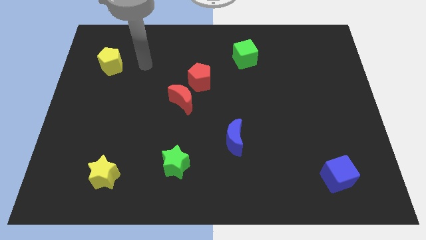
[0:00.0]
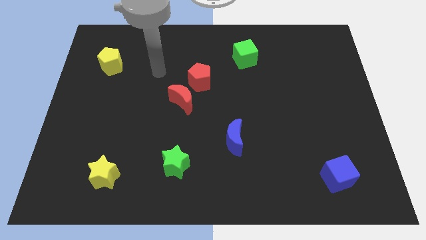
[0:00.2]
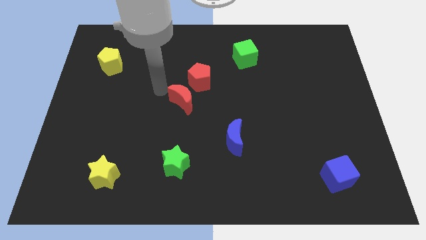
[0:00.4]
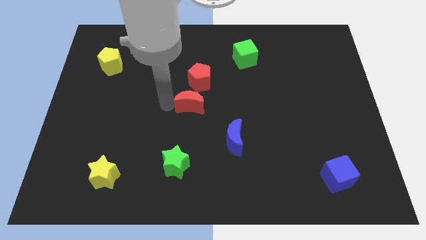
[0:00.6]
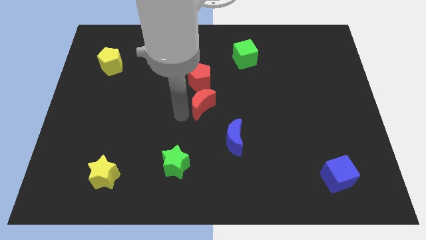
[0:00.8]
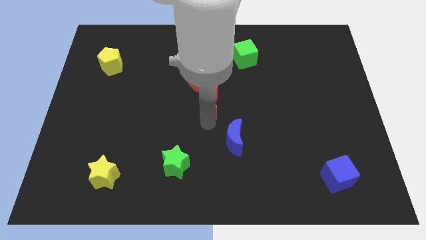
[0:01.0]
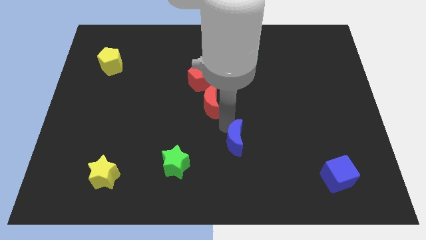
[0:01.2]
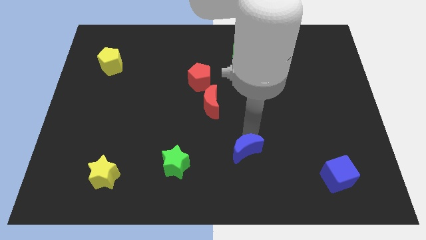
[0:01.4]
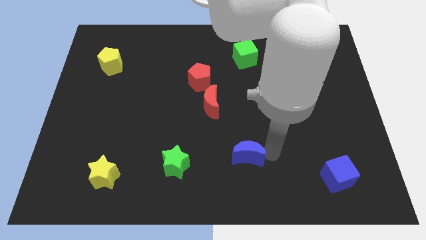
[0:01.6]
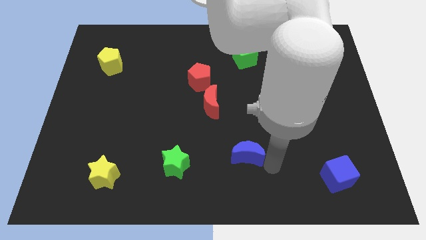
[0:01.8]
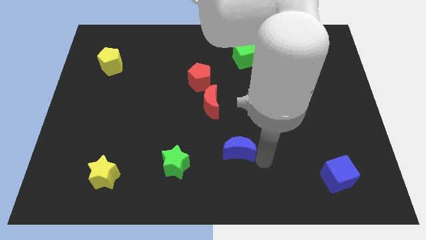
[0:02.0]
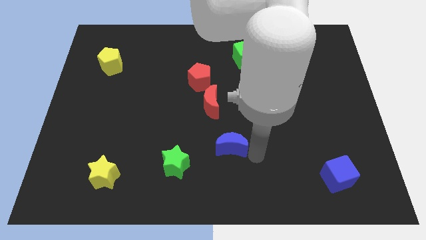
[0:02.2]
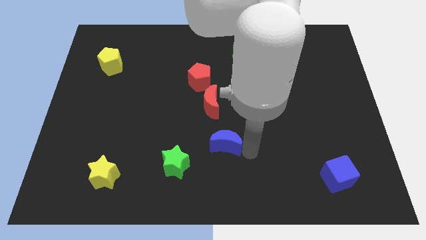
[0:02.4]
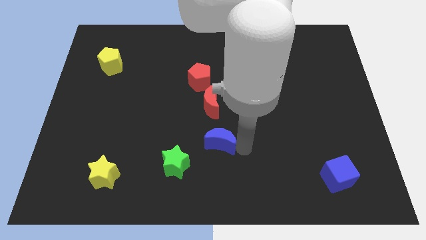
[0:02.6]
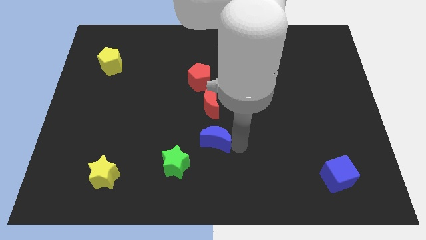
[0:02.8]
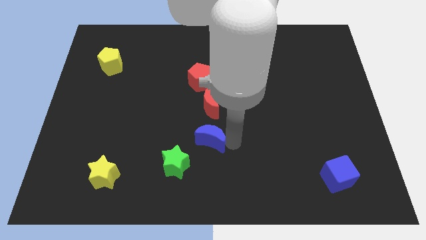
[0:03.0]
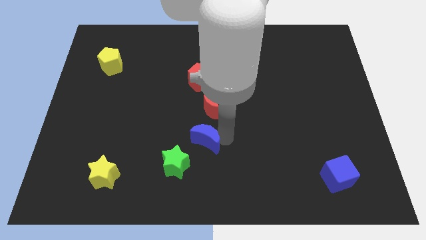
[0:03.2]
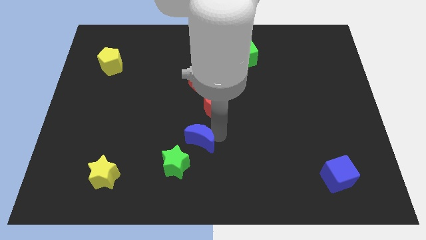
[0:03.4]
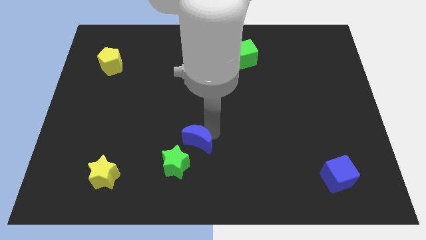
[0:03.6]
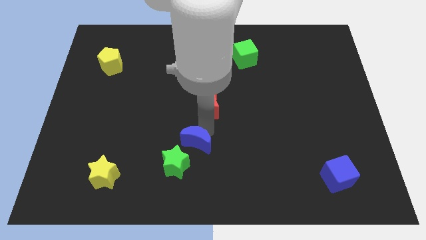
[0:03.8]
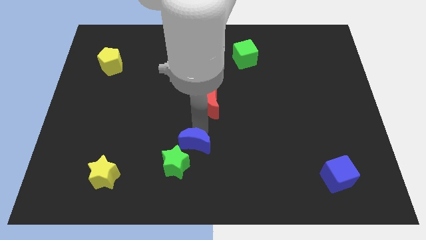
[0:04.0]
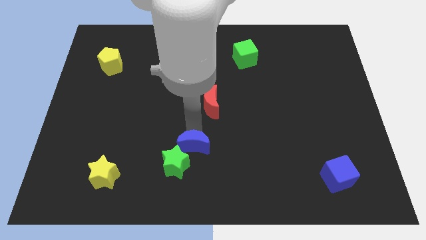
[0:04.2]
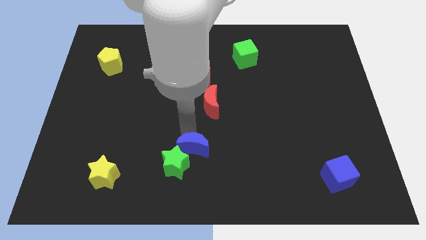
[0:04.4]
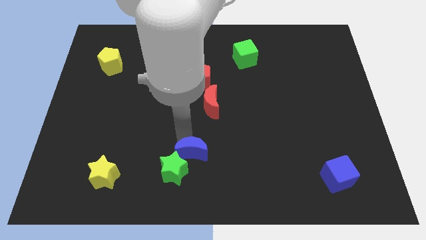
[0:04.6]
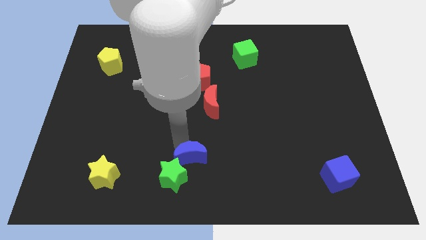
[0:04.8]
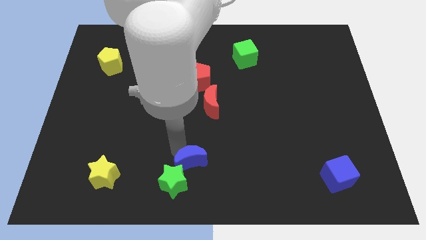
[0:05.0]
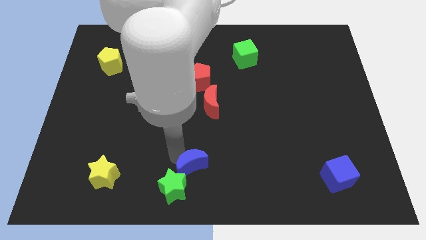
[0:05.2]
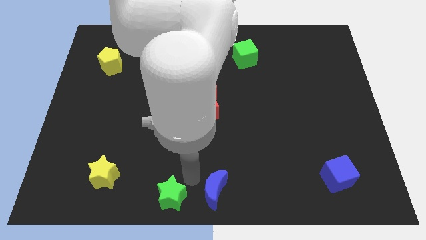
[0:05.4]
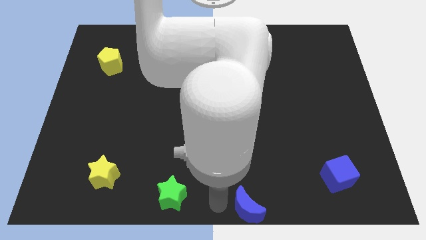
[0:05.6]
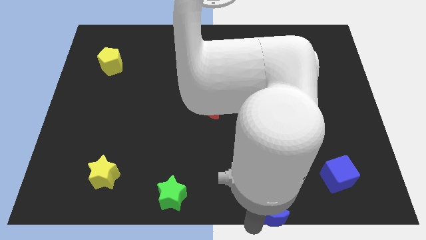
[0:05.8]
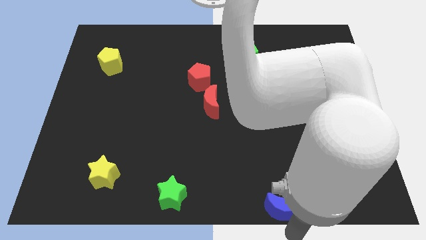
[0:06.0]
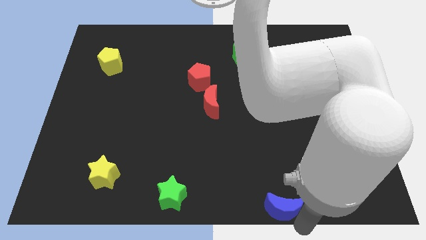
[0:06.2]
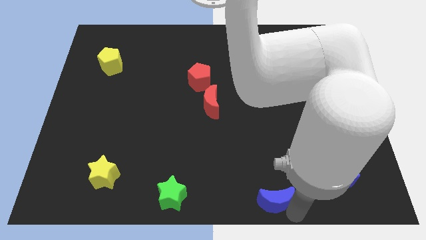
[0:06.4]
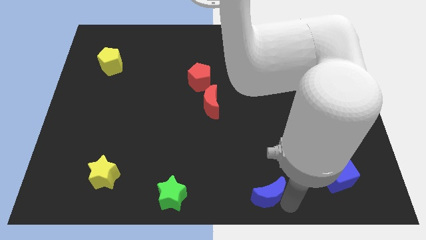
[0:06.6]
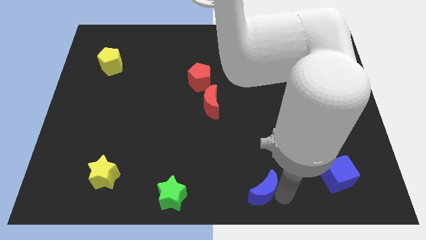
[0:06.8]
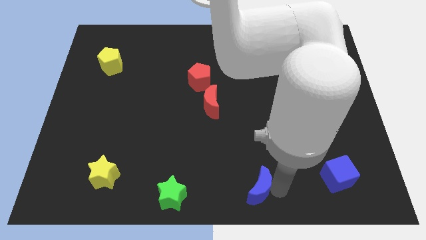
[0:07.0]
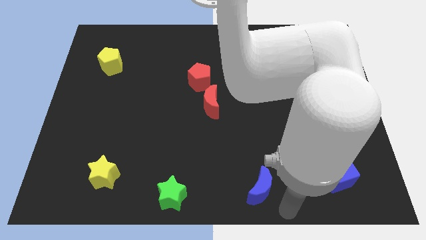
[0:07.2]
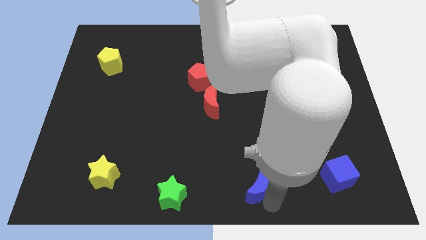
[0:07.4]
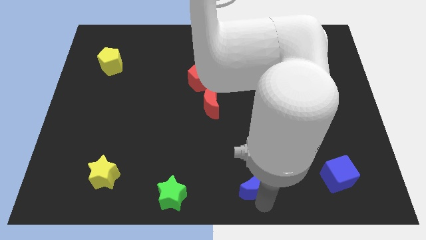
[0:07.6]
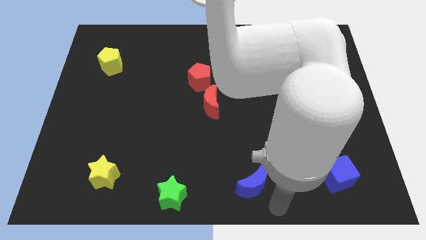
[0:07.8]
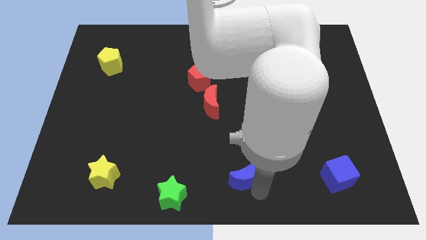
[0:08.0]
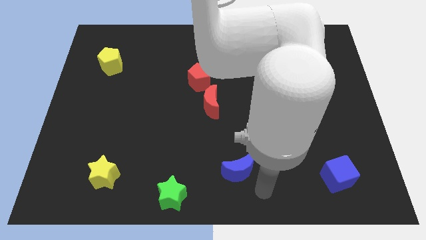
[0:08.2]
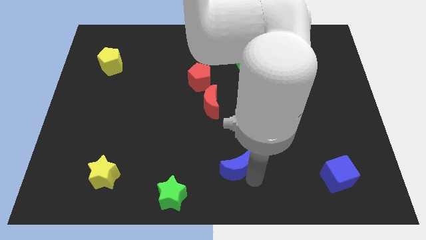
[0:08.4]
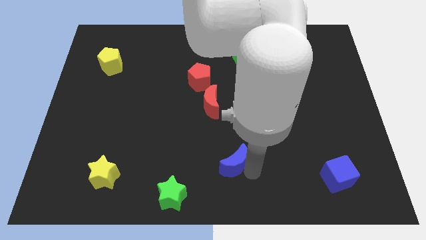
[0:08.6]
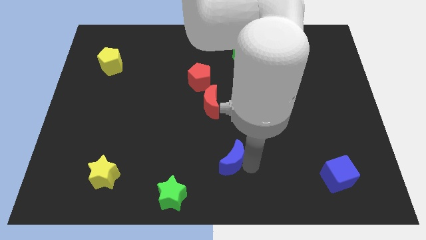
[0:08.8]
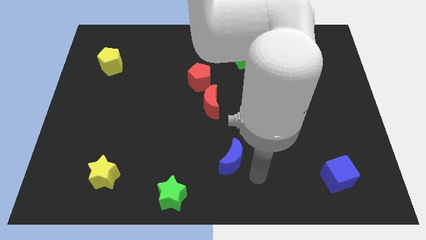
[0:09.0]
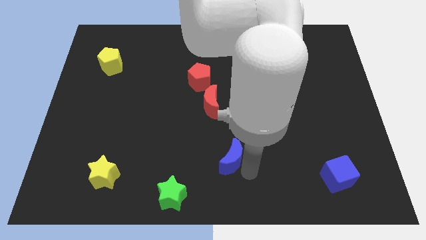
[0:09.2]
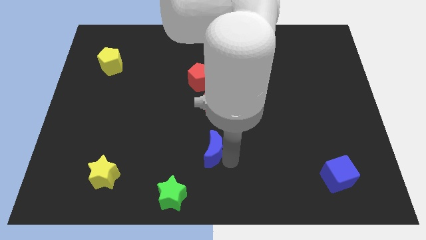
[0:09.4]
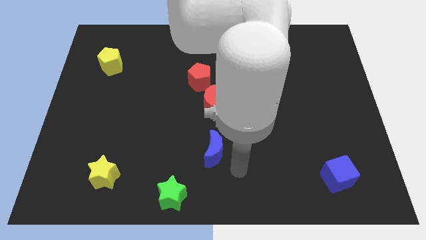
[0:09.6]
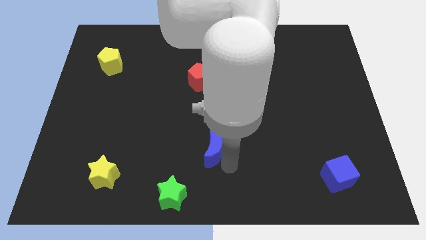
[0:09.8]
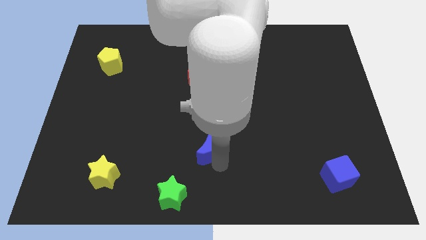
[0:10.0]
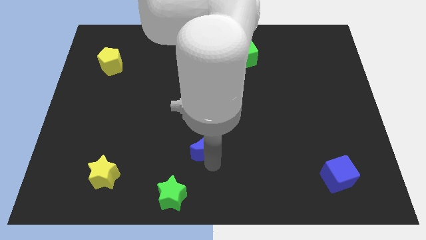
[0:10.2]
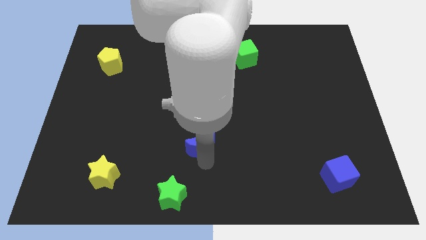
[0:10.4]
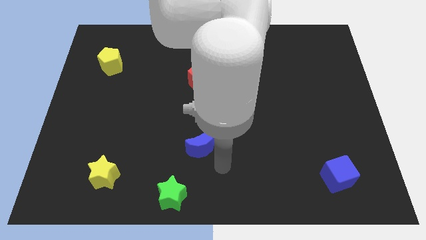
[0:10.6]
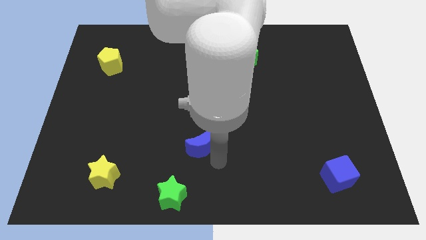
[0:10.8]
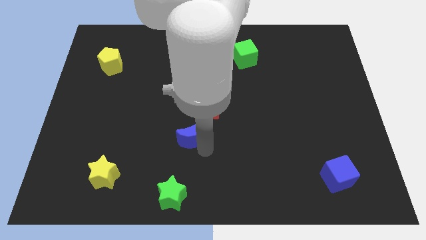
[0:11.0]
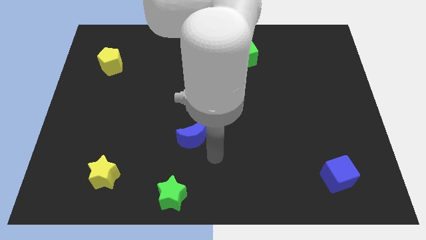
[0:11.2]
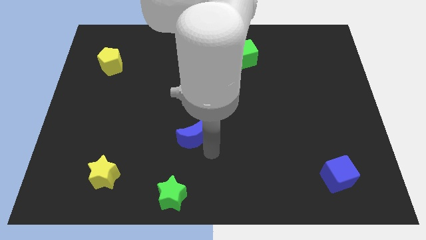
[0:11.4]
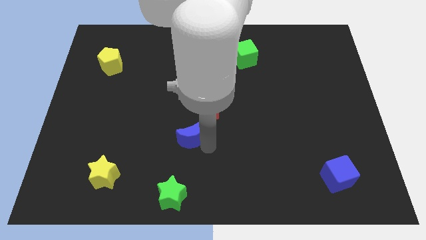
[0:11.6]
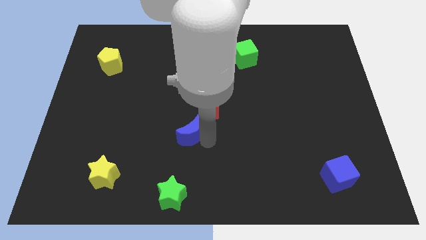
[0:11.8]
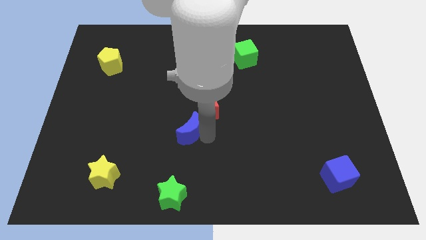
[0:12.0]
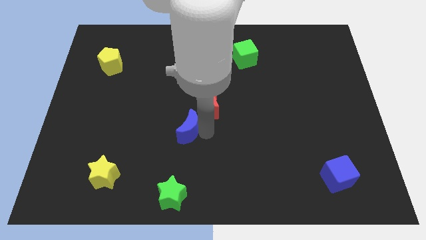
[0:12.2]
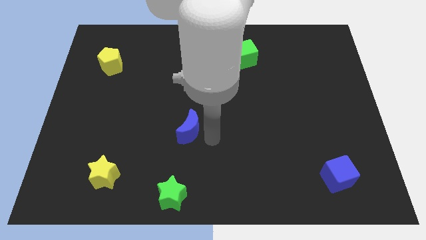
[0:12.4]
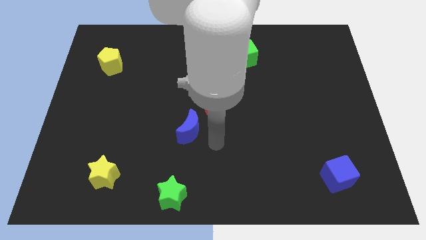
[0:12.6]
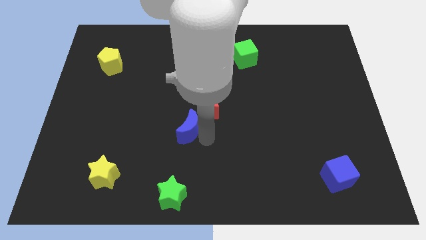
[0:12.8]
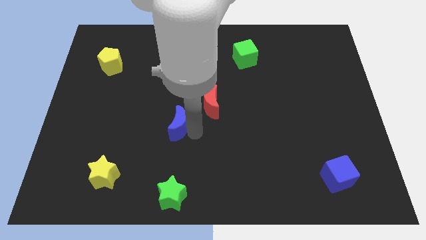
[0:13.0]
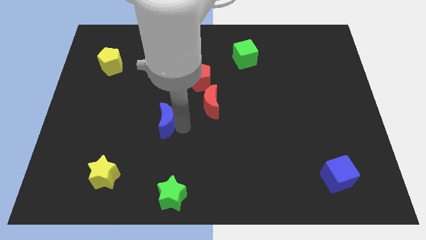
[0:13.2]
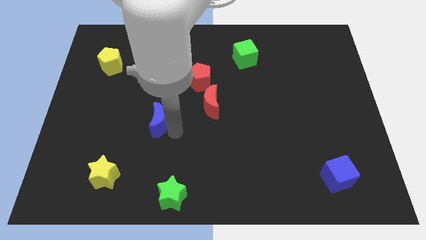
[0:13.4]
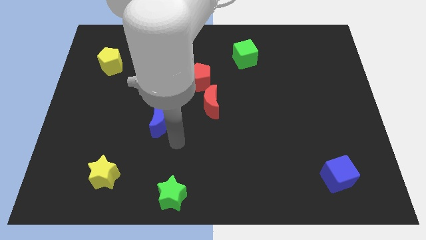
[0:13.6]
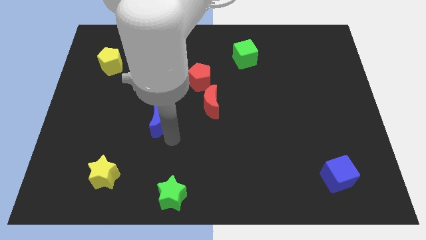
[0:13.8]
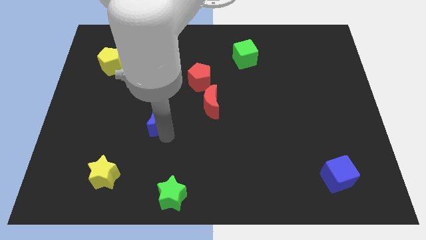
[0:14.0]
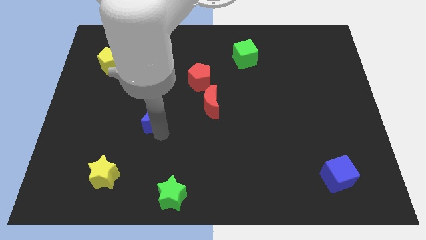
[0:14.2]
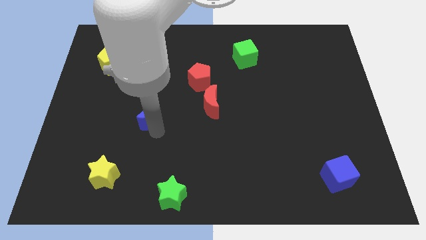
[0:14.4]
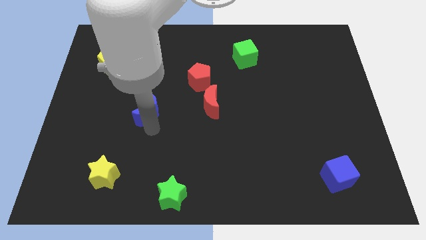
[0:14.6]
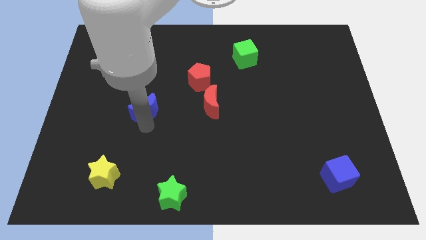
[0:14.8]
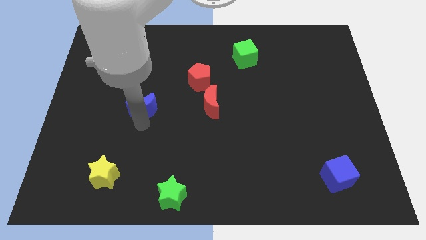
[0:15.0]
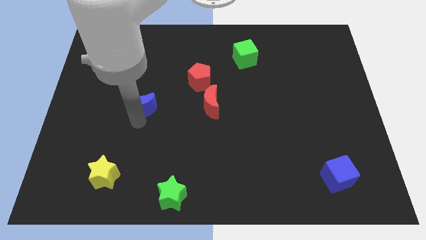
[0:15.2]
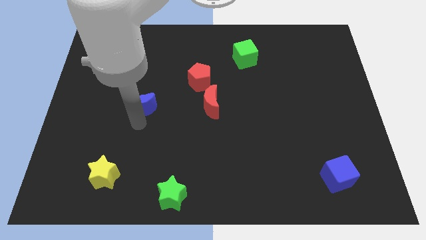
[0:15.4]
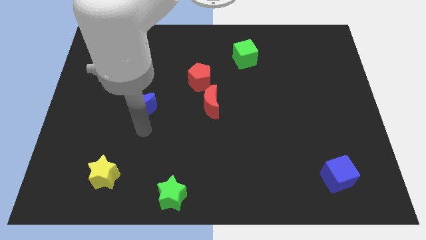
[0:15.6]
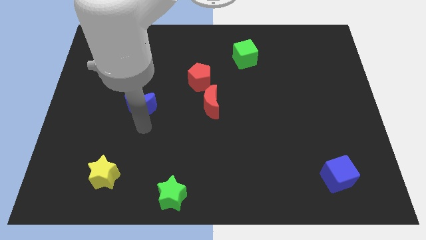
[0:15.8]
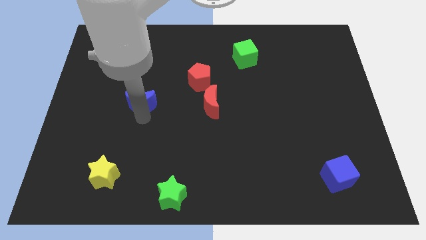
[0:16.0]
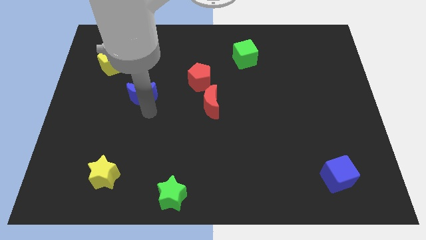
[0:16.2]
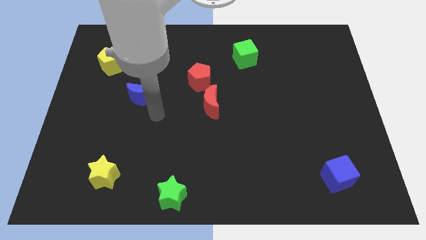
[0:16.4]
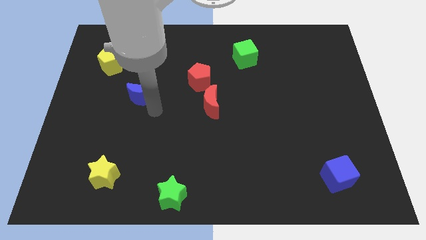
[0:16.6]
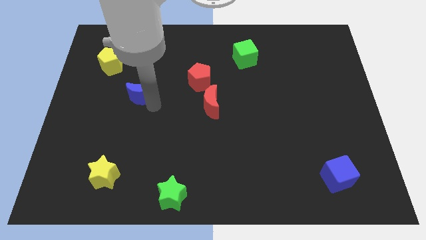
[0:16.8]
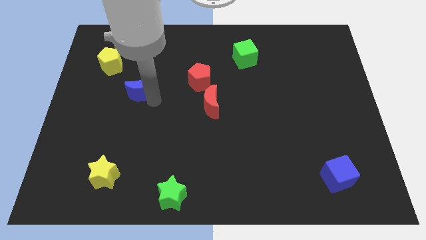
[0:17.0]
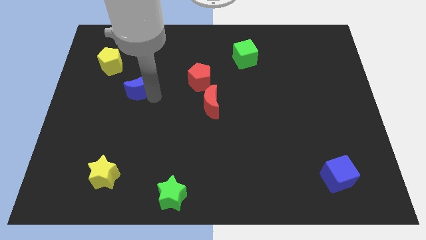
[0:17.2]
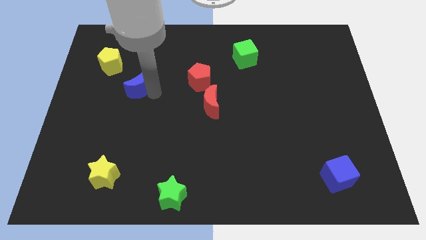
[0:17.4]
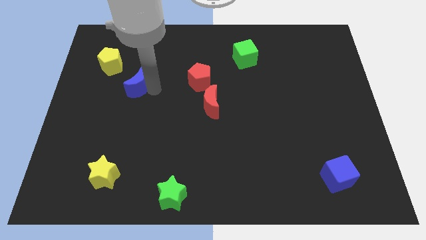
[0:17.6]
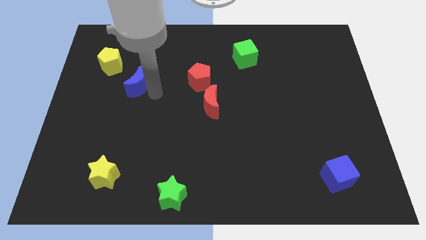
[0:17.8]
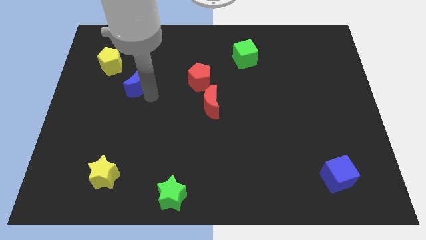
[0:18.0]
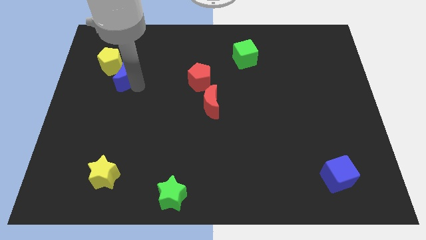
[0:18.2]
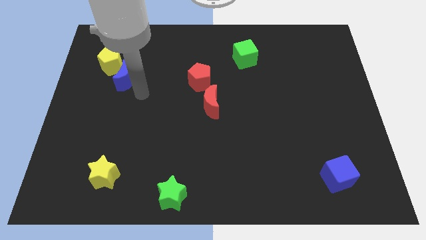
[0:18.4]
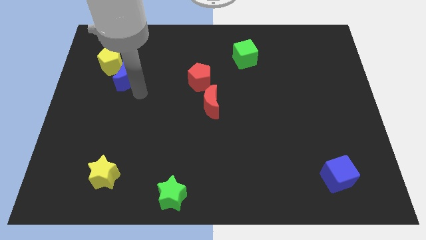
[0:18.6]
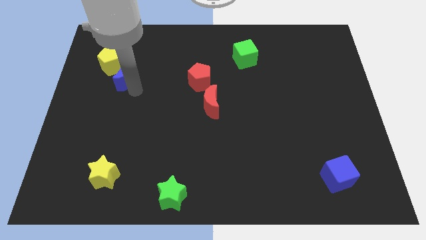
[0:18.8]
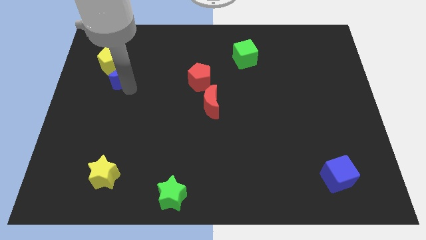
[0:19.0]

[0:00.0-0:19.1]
slide the blue moon next to the yellow pentagon
